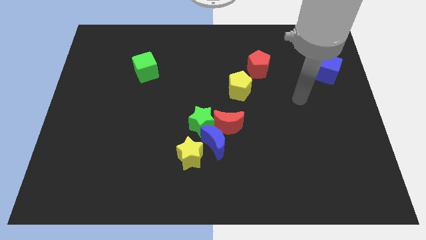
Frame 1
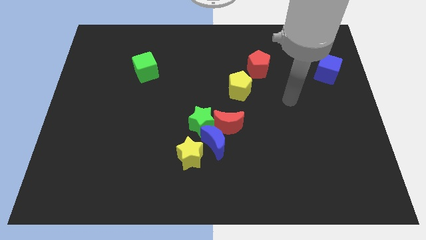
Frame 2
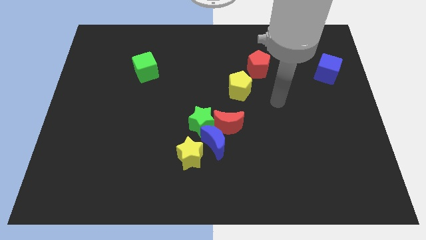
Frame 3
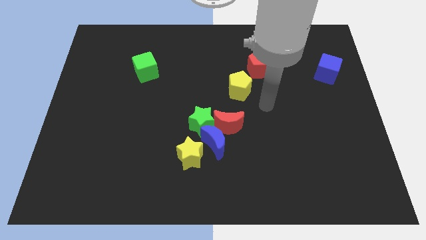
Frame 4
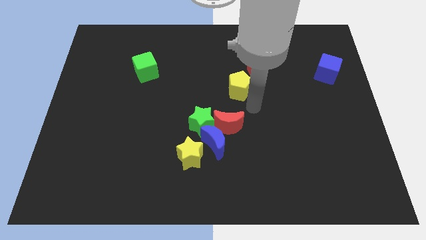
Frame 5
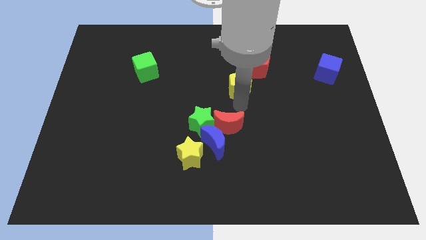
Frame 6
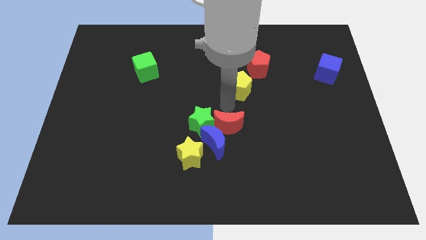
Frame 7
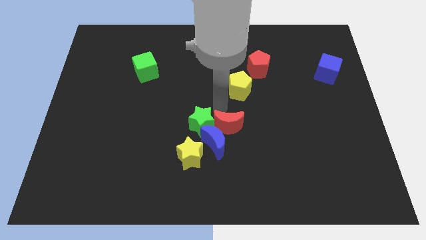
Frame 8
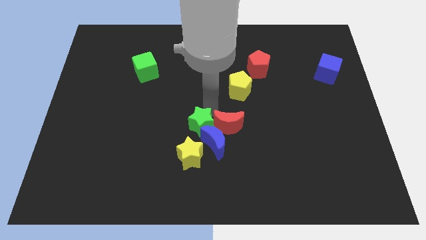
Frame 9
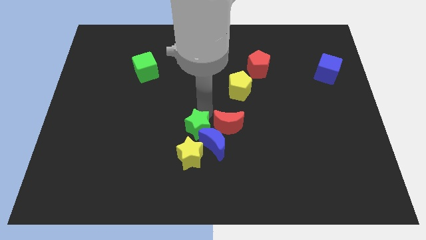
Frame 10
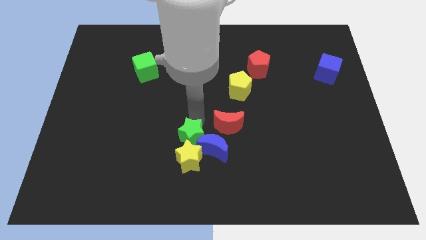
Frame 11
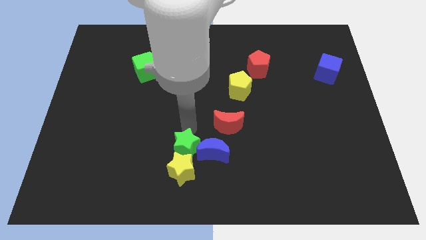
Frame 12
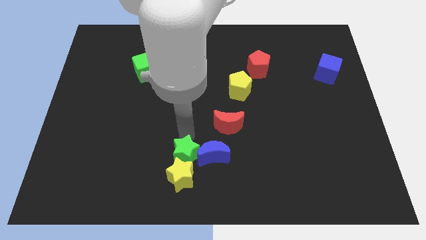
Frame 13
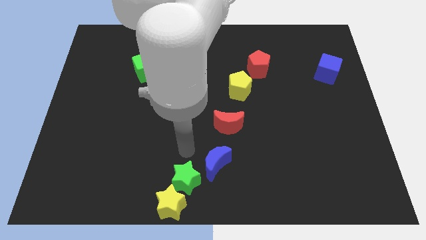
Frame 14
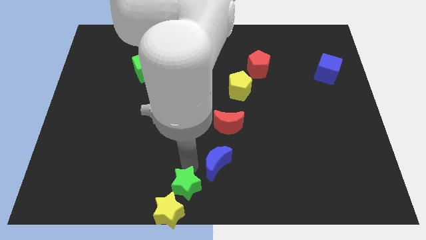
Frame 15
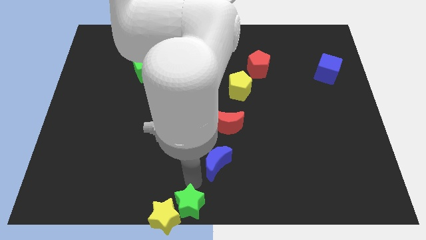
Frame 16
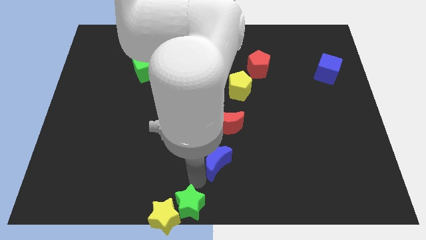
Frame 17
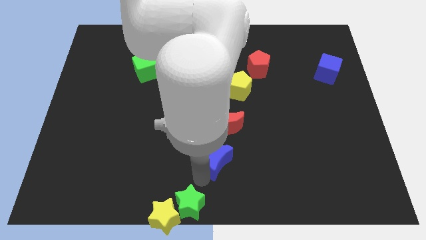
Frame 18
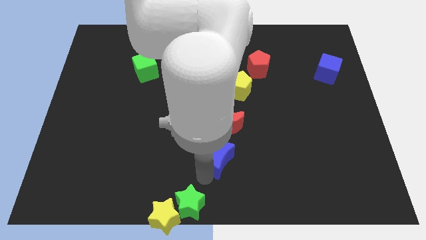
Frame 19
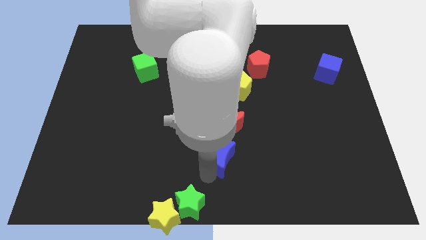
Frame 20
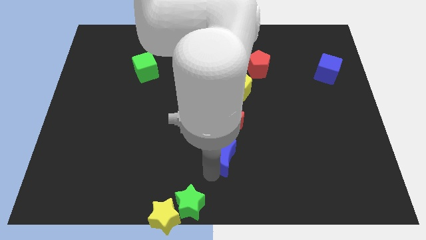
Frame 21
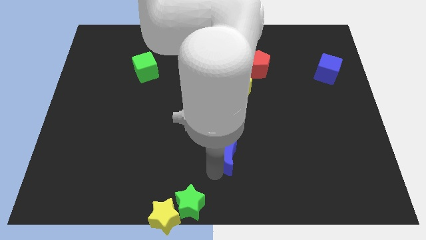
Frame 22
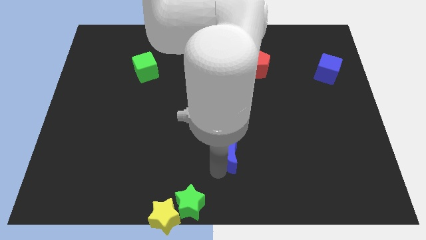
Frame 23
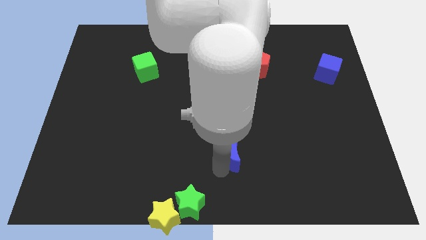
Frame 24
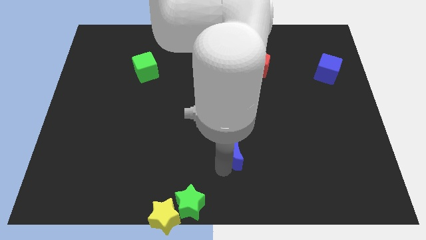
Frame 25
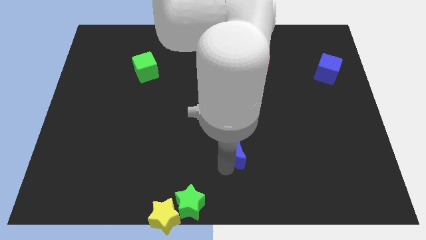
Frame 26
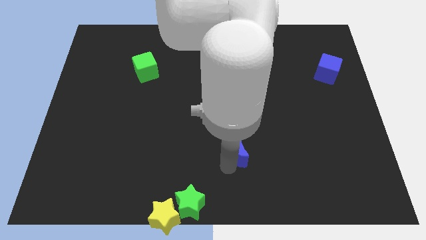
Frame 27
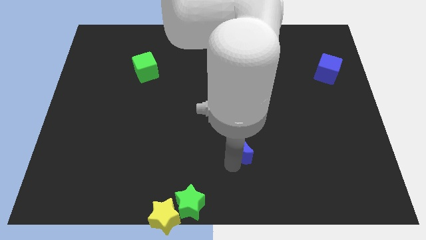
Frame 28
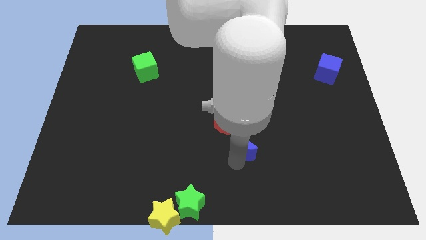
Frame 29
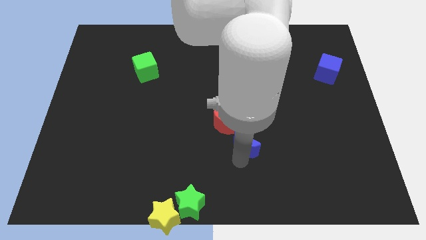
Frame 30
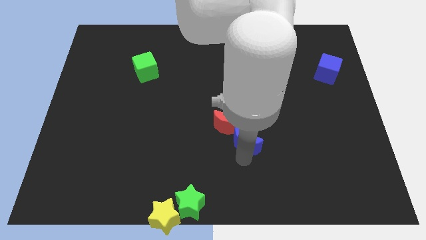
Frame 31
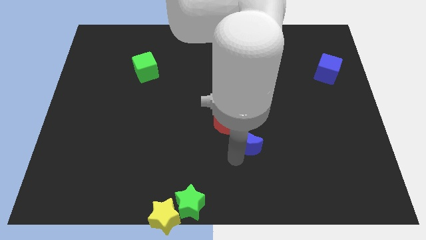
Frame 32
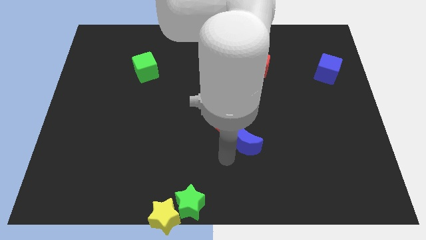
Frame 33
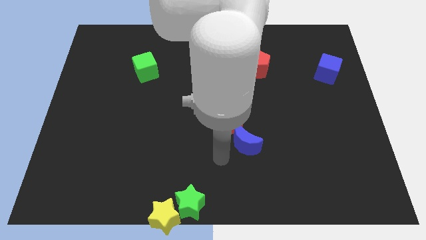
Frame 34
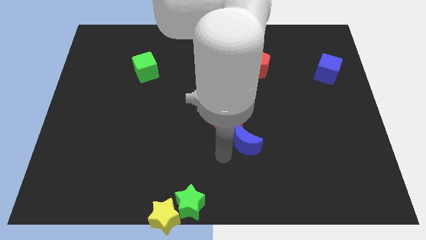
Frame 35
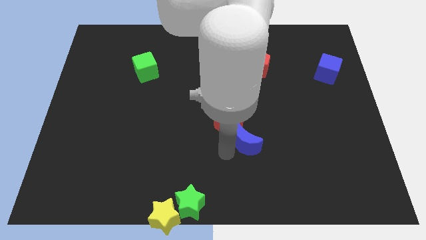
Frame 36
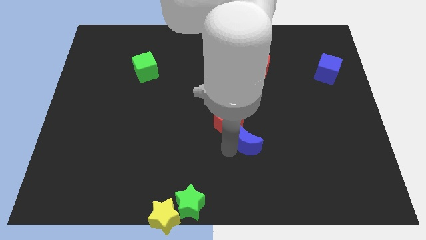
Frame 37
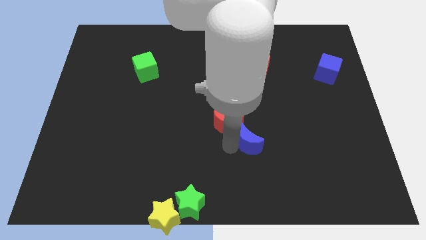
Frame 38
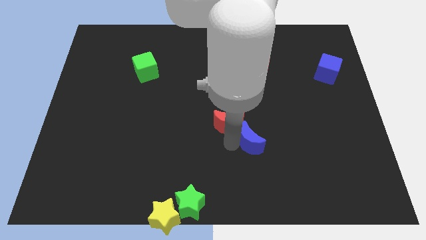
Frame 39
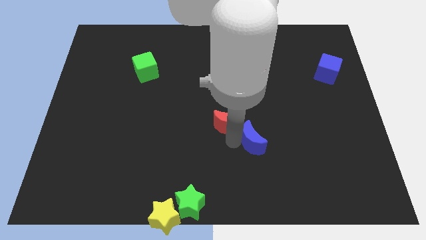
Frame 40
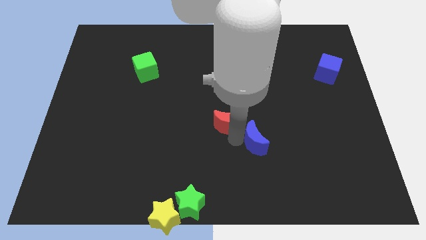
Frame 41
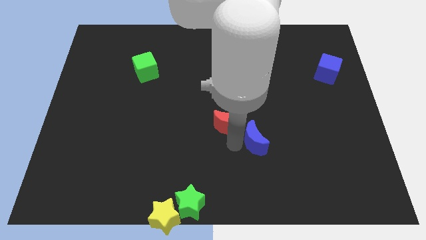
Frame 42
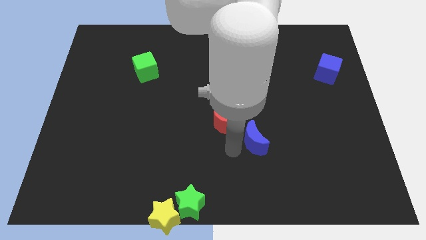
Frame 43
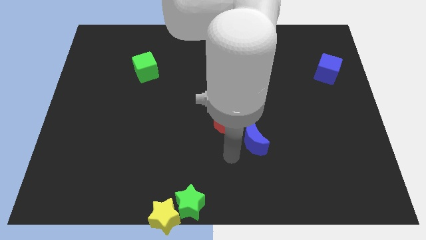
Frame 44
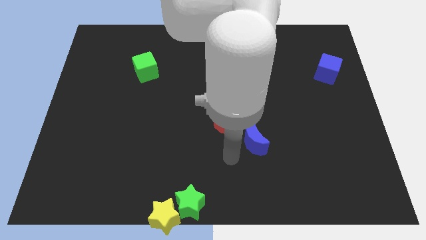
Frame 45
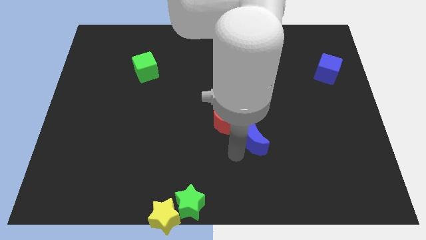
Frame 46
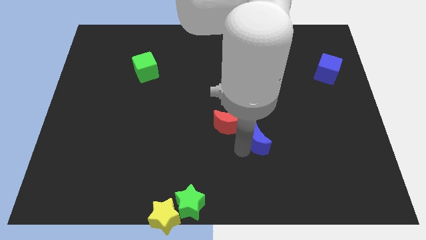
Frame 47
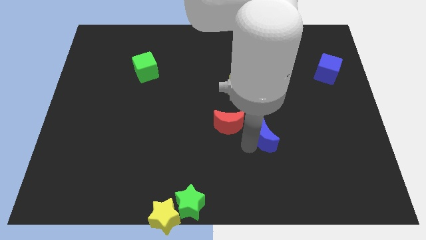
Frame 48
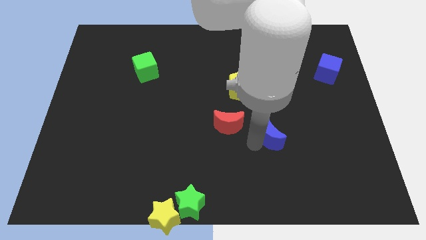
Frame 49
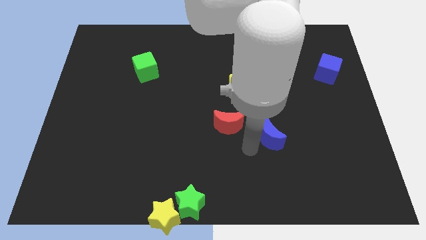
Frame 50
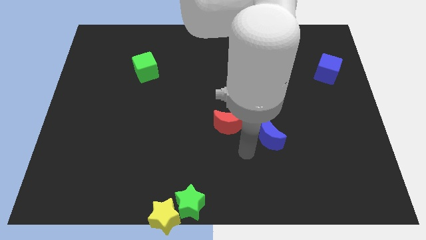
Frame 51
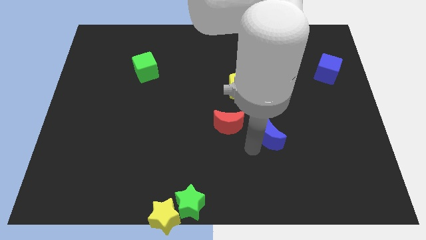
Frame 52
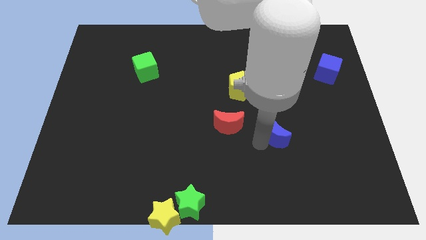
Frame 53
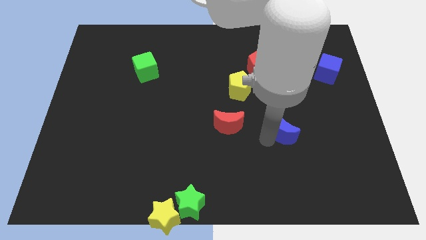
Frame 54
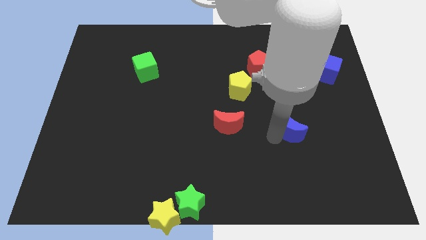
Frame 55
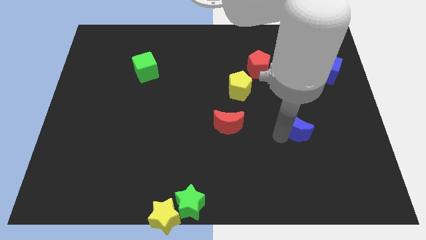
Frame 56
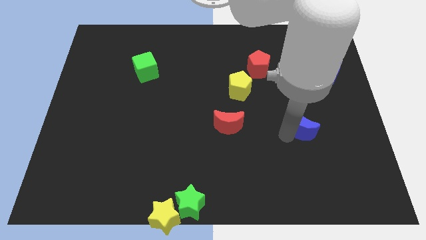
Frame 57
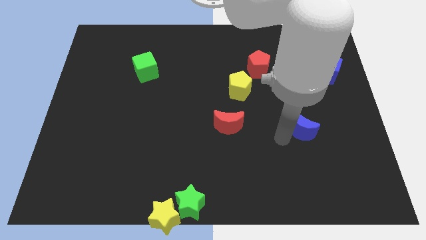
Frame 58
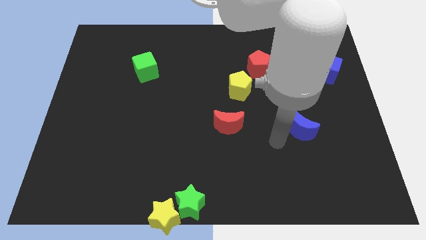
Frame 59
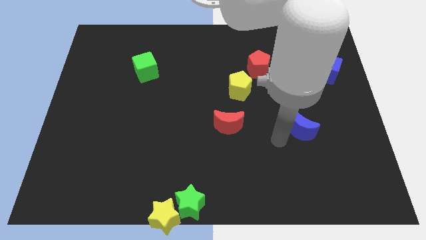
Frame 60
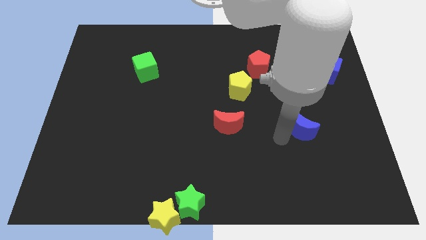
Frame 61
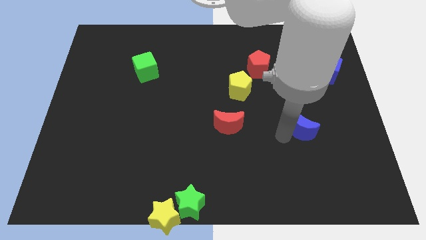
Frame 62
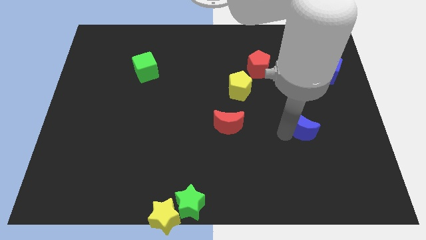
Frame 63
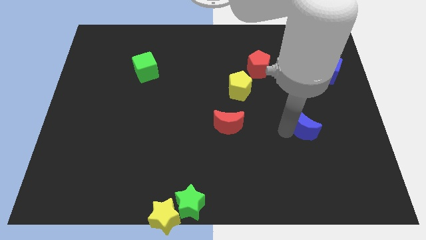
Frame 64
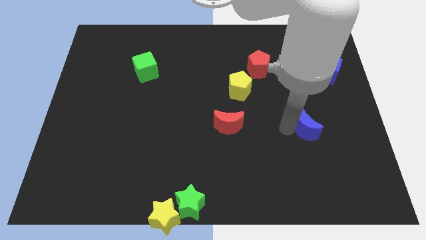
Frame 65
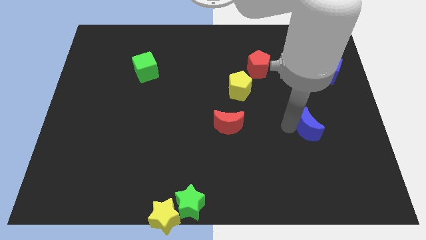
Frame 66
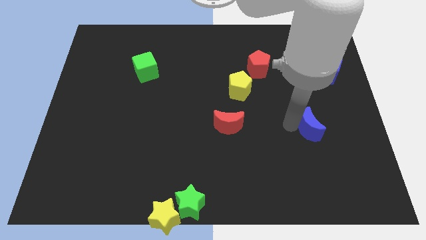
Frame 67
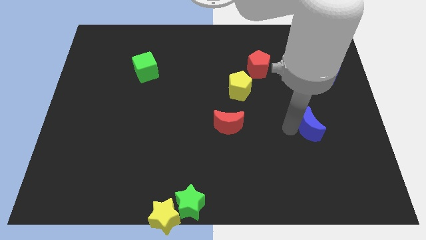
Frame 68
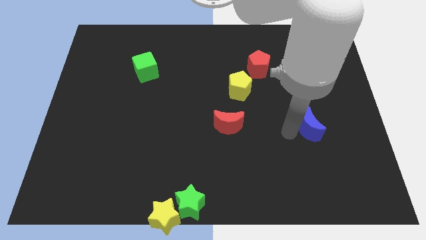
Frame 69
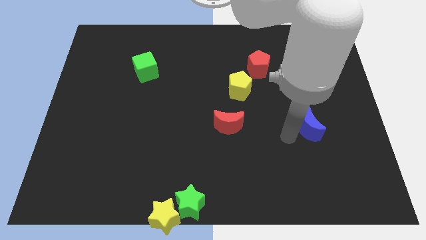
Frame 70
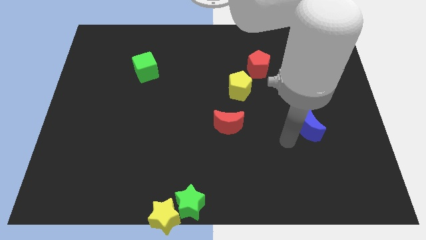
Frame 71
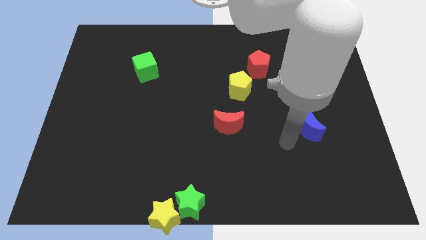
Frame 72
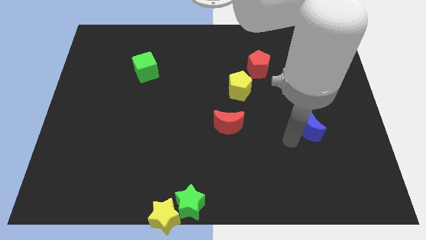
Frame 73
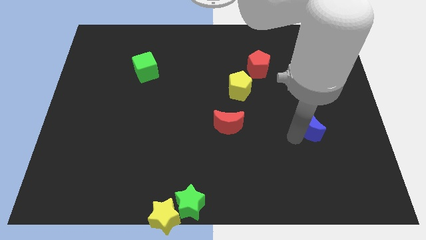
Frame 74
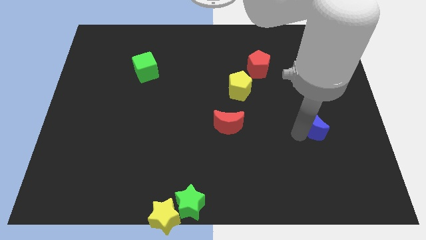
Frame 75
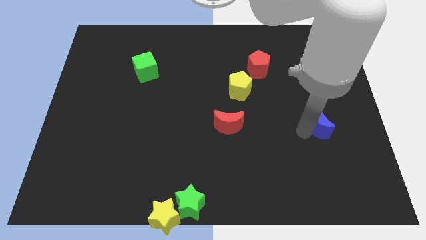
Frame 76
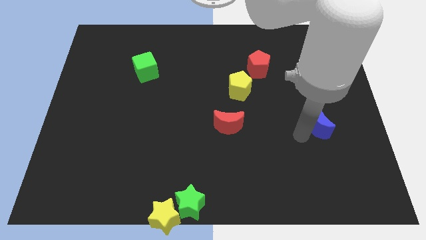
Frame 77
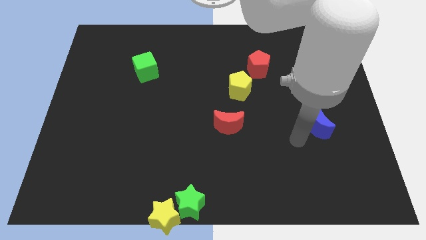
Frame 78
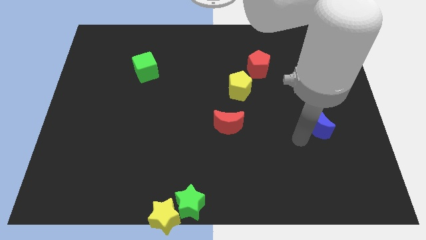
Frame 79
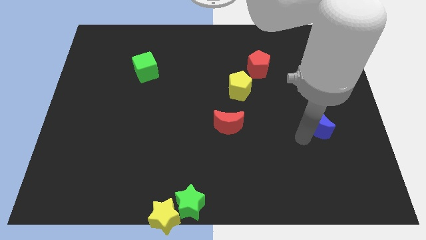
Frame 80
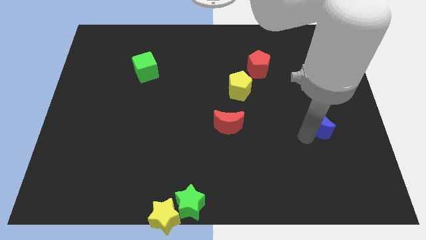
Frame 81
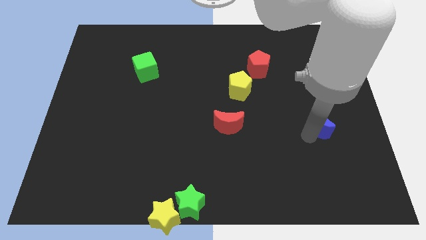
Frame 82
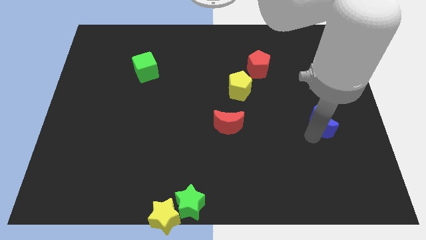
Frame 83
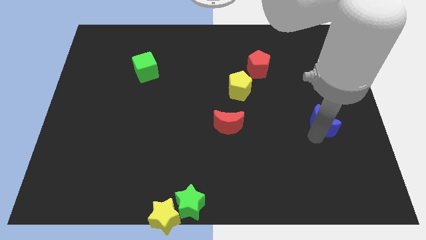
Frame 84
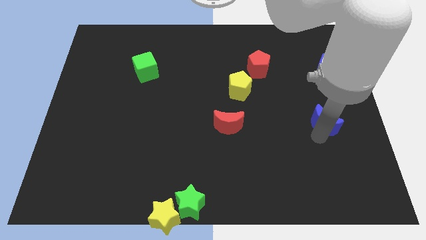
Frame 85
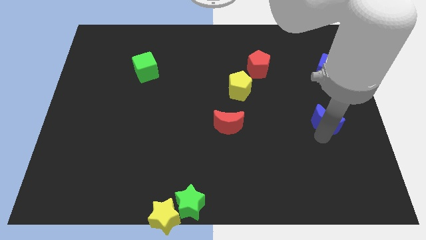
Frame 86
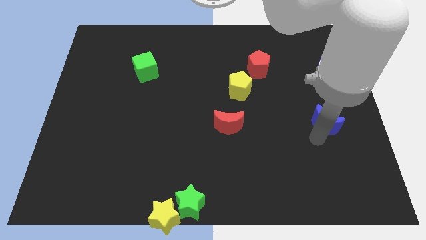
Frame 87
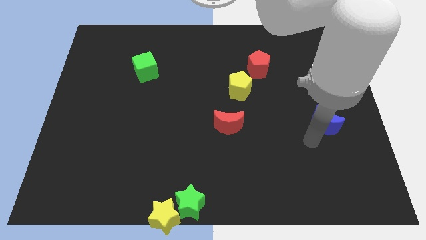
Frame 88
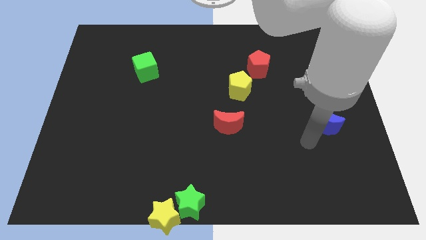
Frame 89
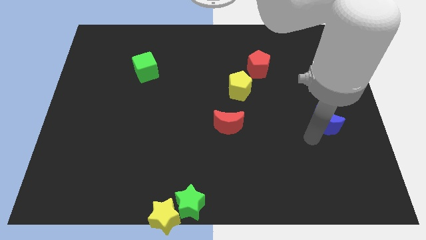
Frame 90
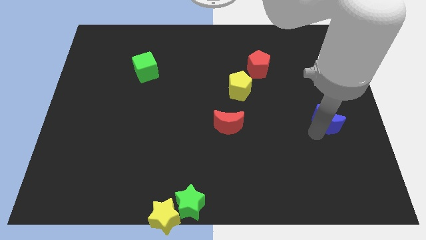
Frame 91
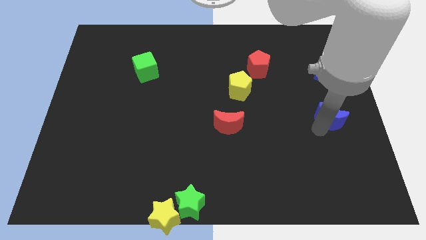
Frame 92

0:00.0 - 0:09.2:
move the blue moon to the right side of the board
